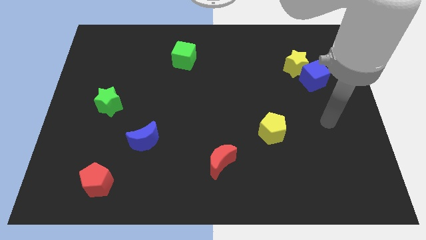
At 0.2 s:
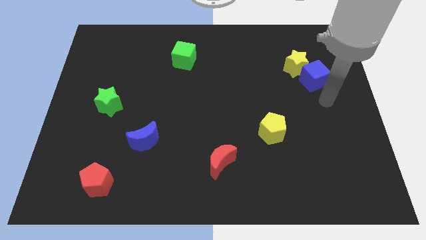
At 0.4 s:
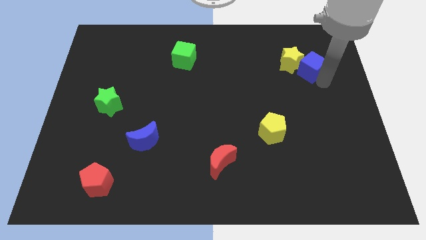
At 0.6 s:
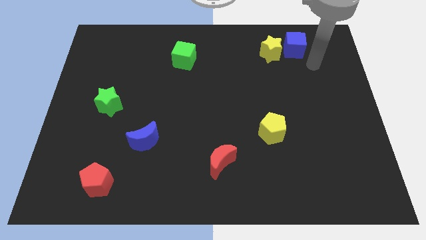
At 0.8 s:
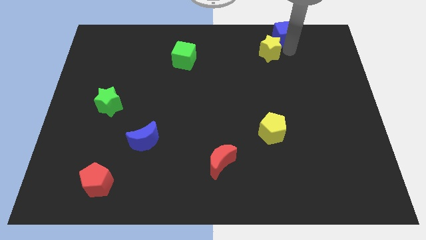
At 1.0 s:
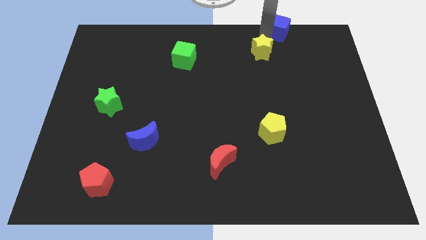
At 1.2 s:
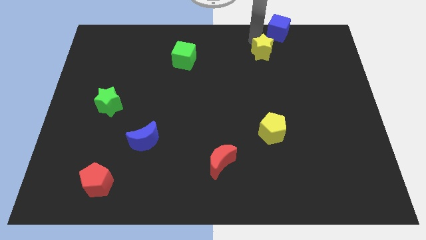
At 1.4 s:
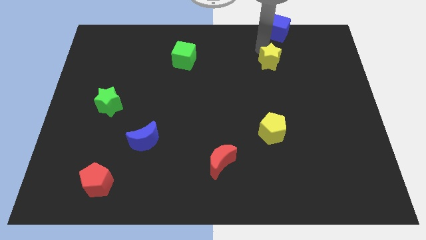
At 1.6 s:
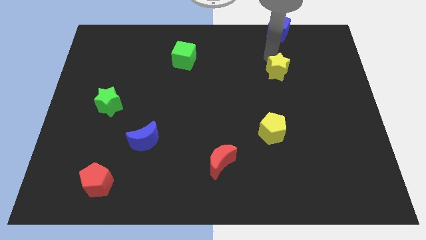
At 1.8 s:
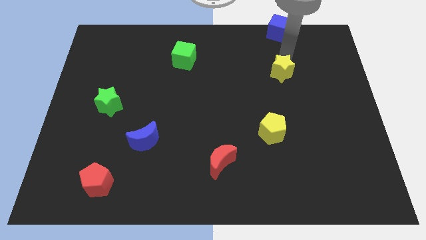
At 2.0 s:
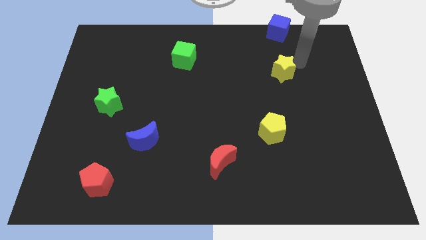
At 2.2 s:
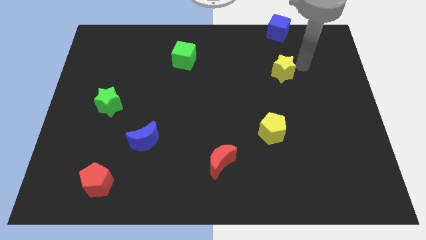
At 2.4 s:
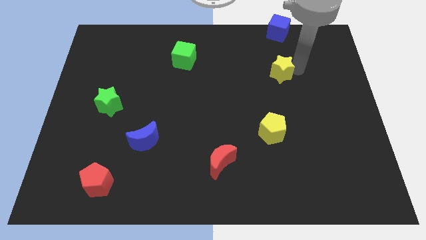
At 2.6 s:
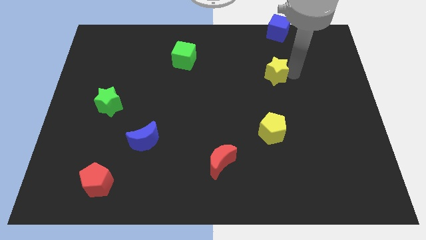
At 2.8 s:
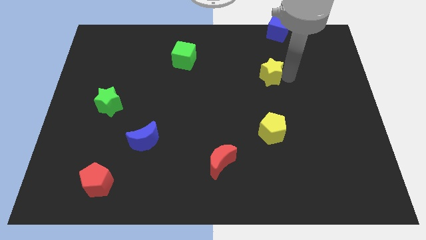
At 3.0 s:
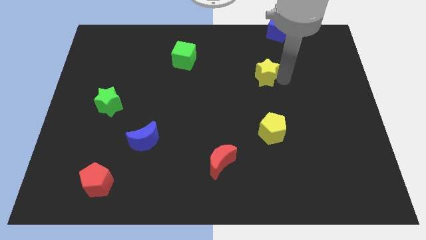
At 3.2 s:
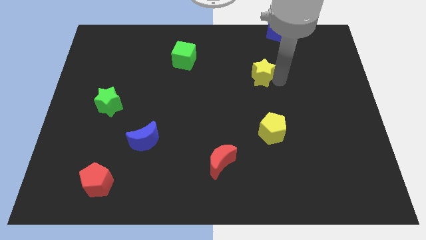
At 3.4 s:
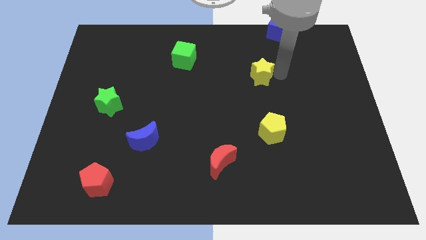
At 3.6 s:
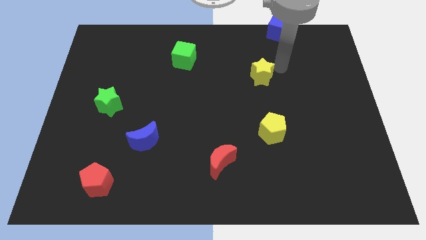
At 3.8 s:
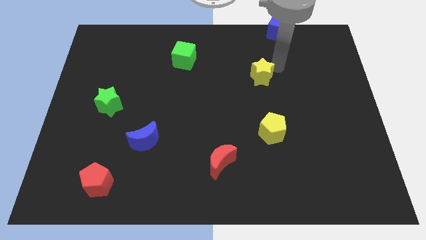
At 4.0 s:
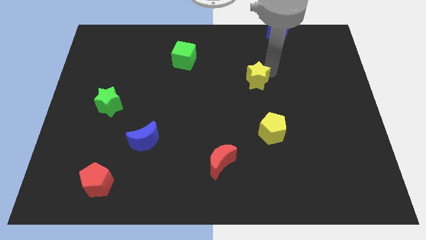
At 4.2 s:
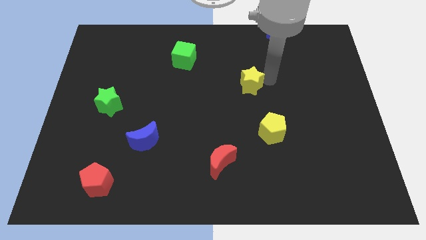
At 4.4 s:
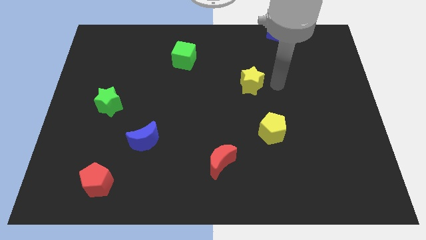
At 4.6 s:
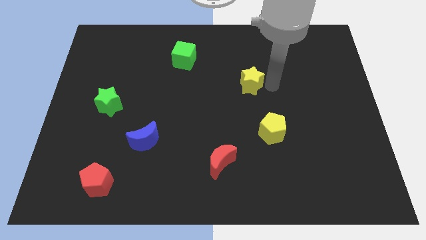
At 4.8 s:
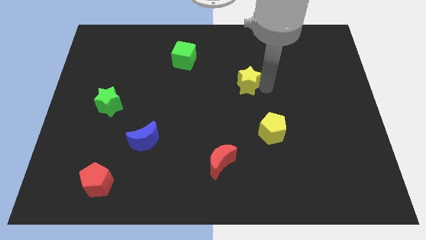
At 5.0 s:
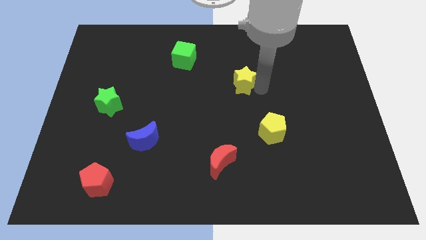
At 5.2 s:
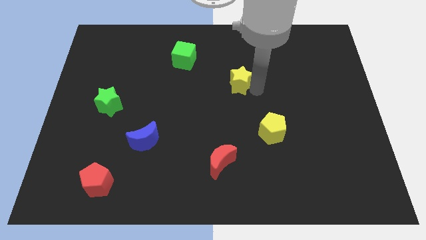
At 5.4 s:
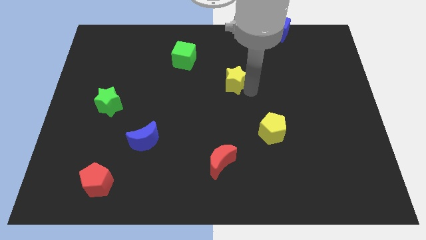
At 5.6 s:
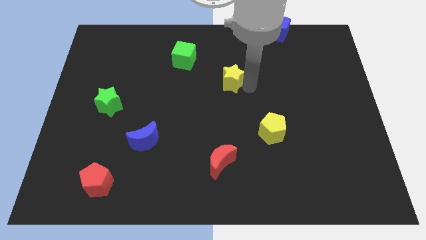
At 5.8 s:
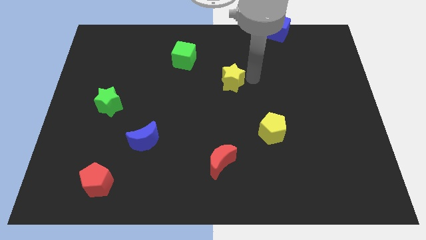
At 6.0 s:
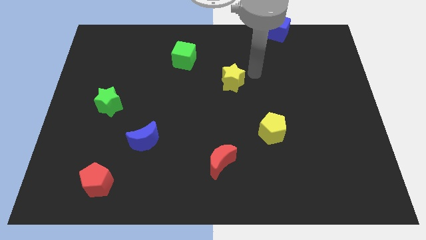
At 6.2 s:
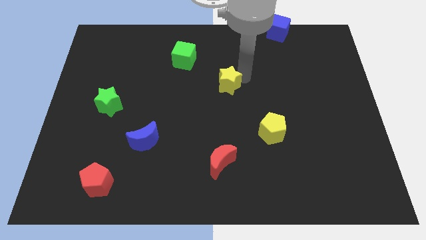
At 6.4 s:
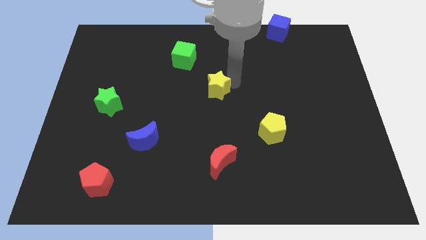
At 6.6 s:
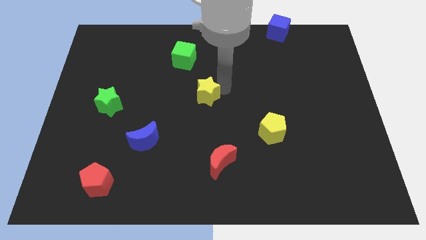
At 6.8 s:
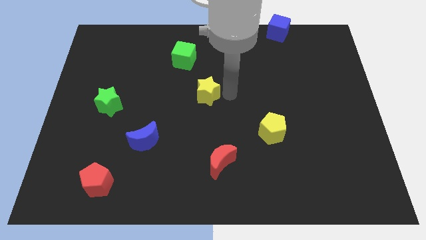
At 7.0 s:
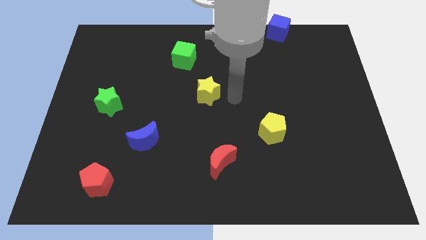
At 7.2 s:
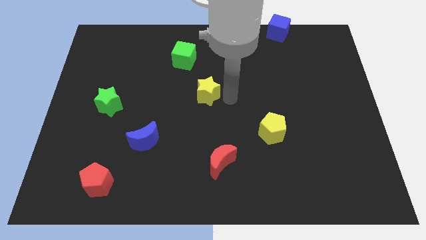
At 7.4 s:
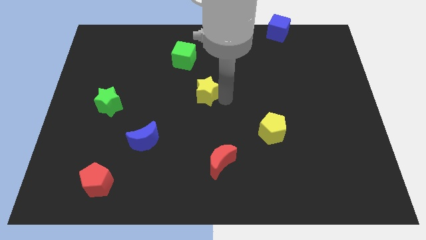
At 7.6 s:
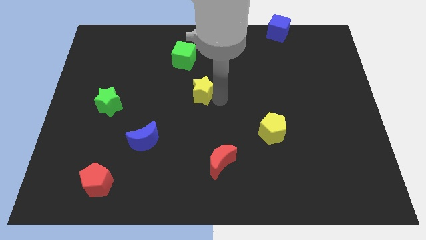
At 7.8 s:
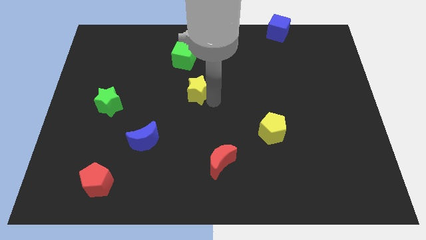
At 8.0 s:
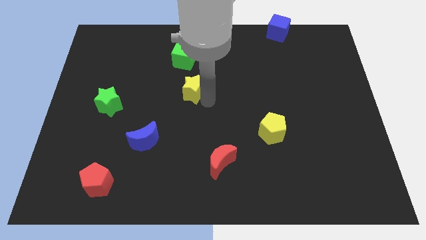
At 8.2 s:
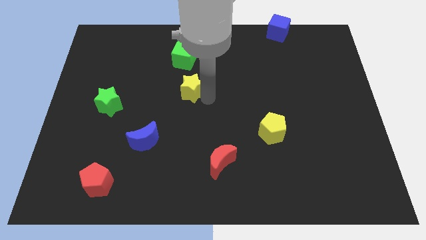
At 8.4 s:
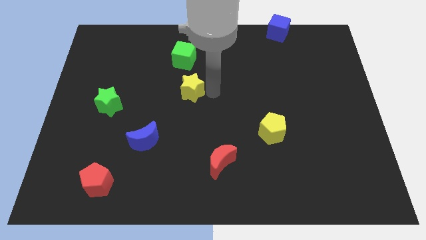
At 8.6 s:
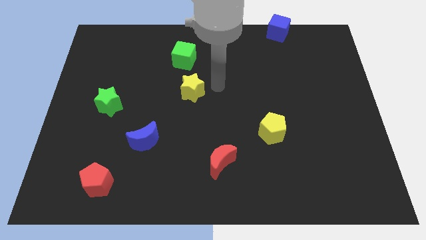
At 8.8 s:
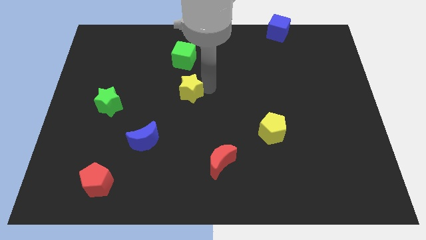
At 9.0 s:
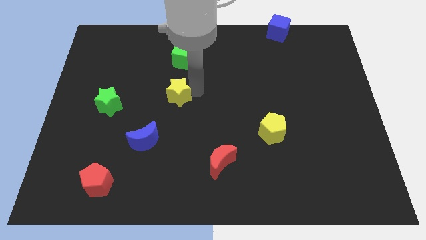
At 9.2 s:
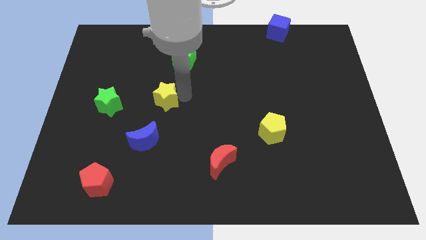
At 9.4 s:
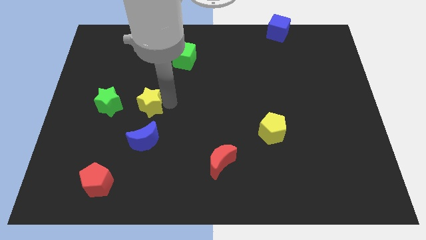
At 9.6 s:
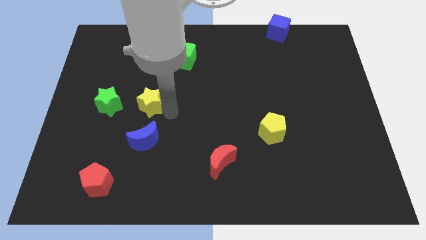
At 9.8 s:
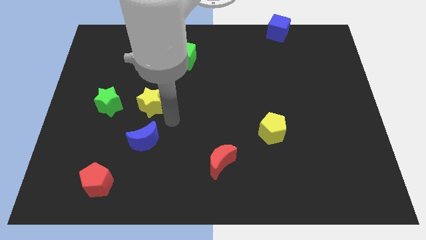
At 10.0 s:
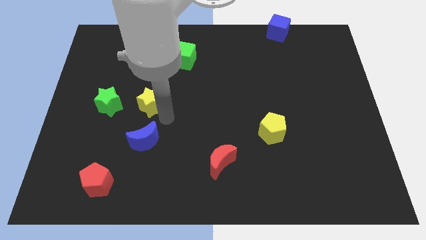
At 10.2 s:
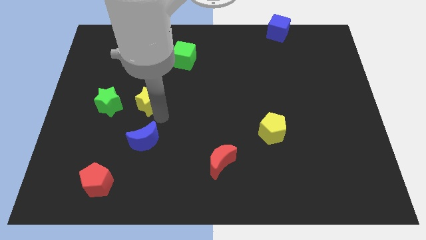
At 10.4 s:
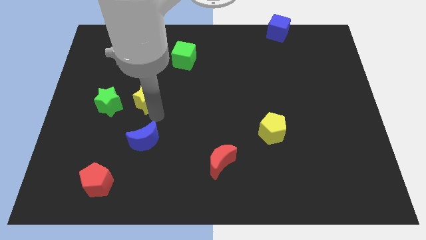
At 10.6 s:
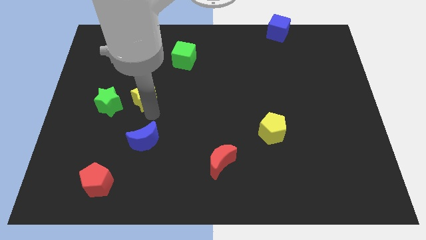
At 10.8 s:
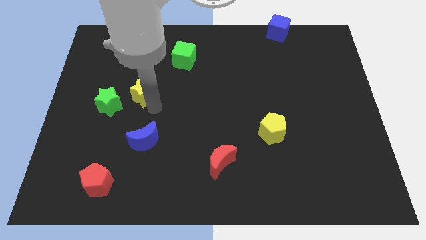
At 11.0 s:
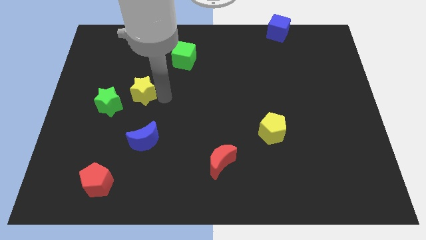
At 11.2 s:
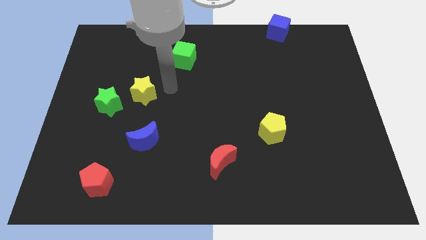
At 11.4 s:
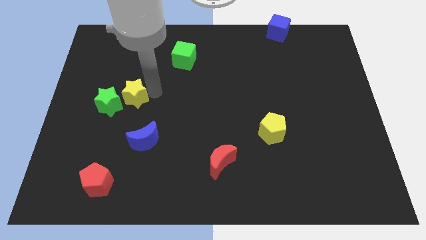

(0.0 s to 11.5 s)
put the yellow star to the green star

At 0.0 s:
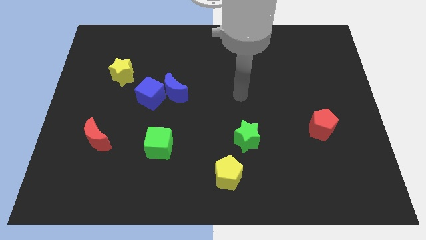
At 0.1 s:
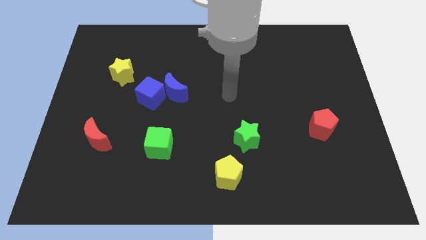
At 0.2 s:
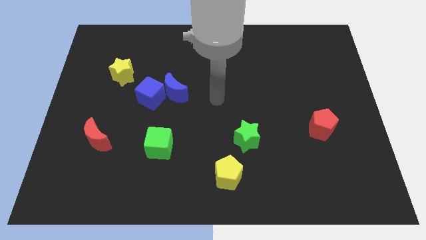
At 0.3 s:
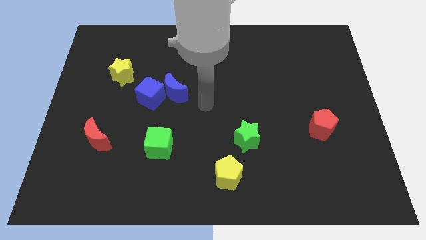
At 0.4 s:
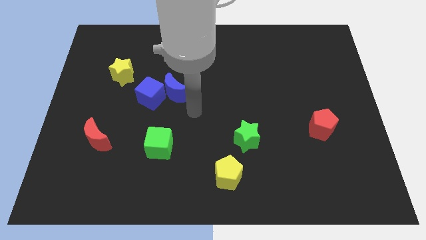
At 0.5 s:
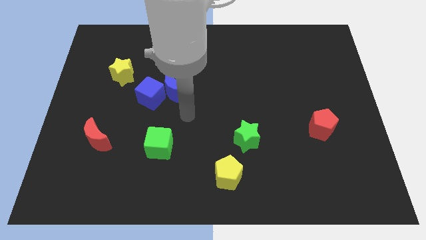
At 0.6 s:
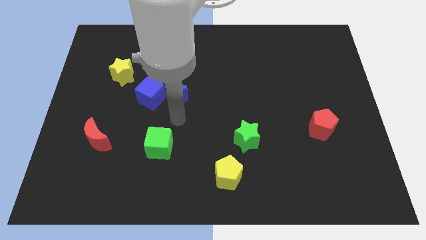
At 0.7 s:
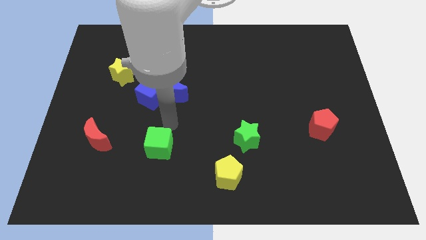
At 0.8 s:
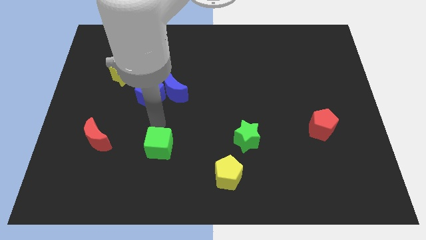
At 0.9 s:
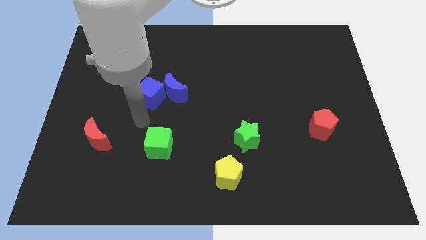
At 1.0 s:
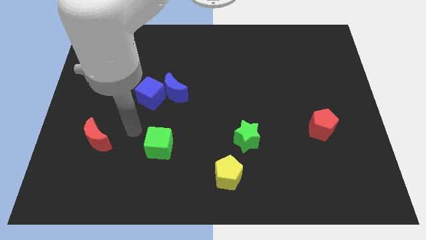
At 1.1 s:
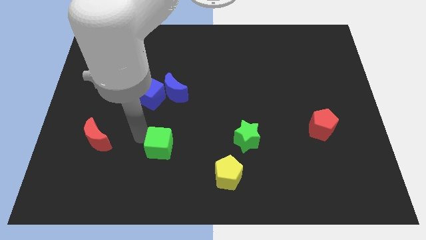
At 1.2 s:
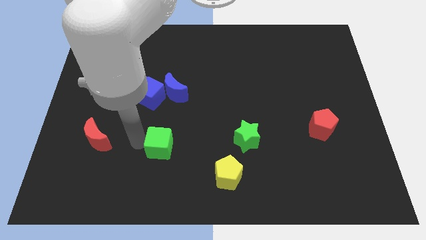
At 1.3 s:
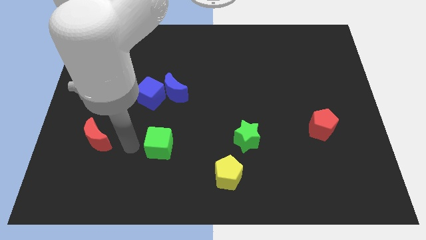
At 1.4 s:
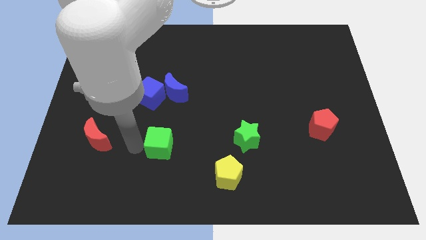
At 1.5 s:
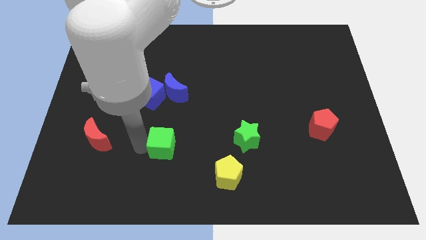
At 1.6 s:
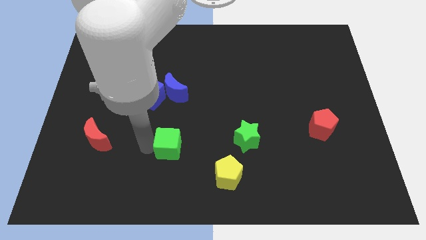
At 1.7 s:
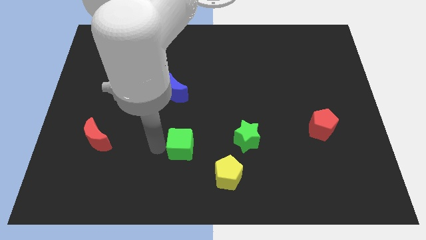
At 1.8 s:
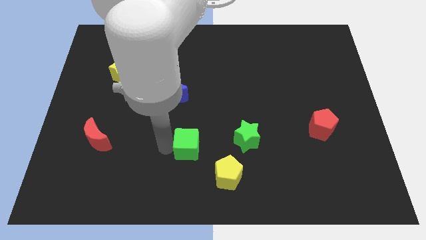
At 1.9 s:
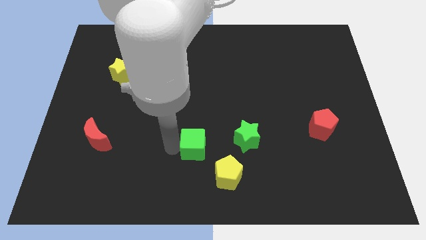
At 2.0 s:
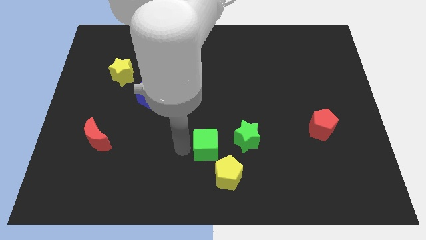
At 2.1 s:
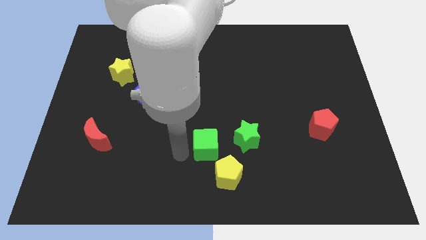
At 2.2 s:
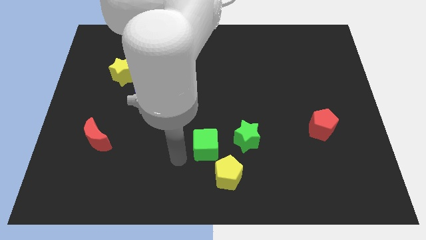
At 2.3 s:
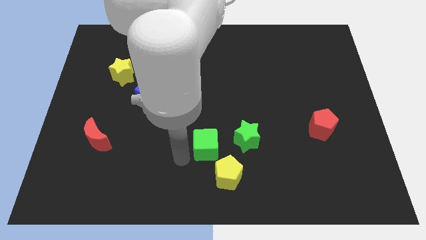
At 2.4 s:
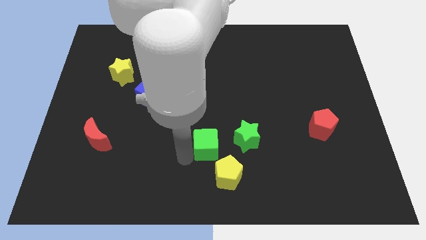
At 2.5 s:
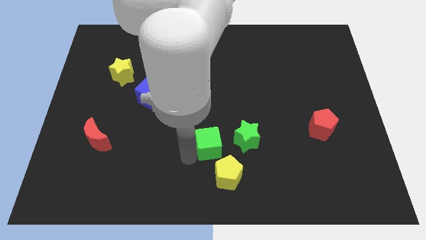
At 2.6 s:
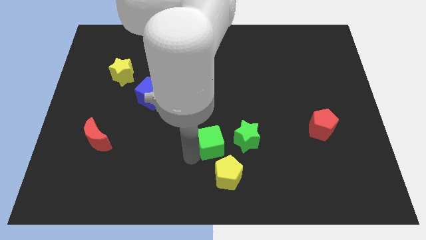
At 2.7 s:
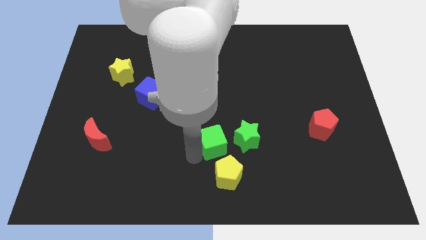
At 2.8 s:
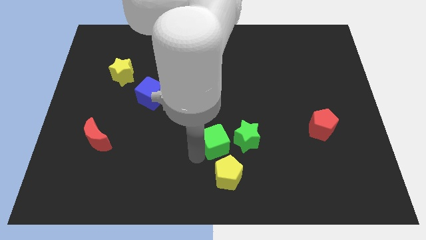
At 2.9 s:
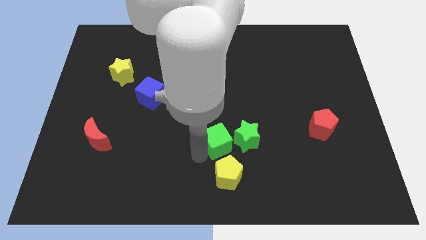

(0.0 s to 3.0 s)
put the green cube towards the green star
